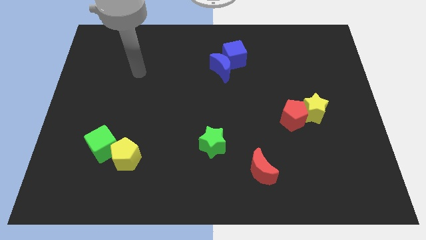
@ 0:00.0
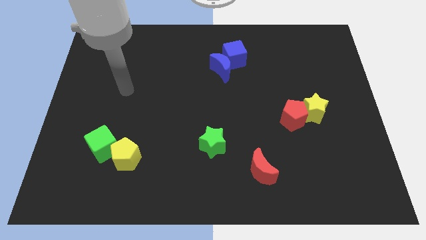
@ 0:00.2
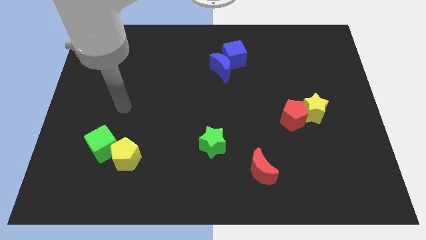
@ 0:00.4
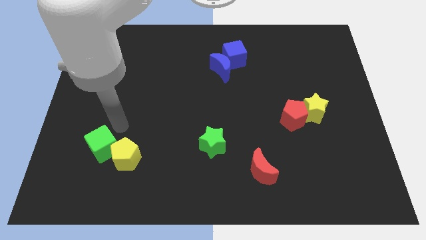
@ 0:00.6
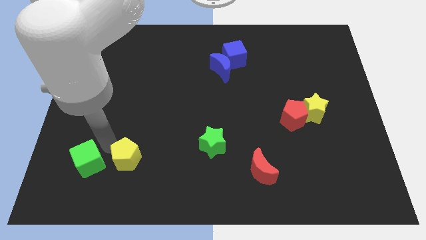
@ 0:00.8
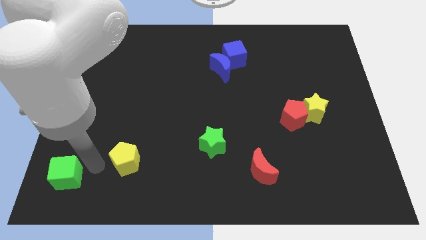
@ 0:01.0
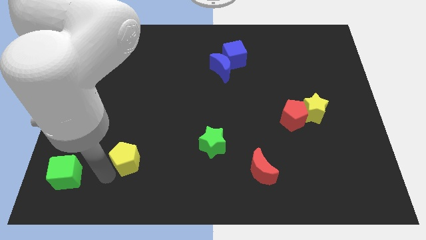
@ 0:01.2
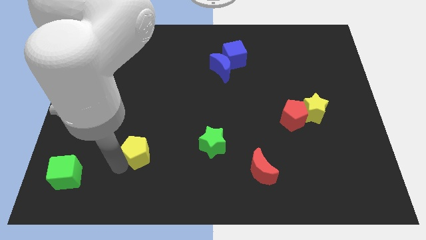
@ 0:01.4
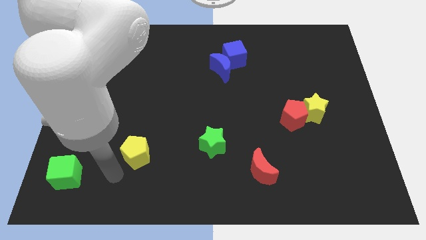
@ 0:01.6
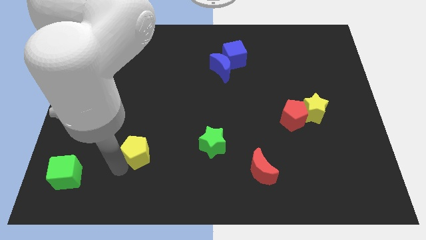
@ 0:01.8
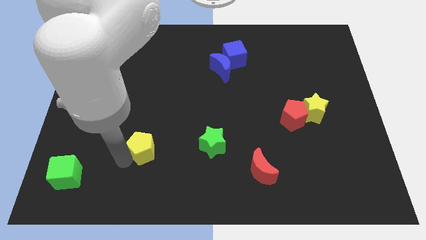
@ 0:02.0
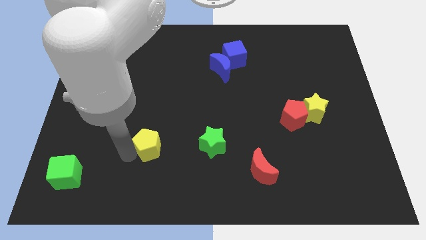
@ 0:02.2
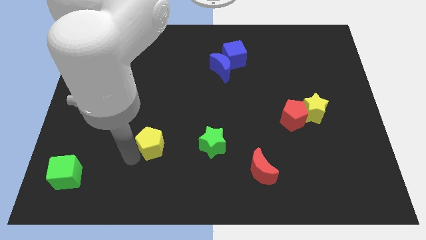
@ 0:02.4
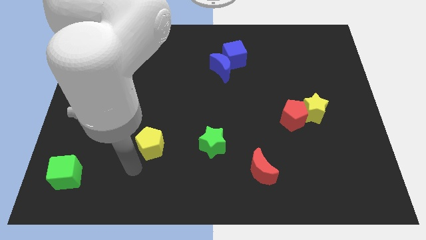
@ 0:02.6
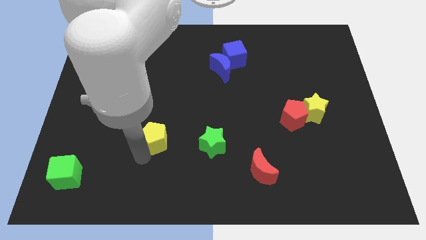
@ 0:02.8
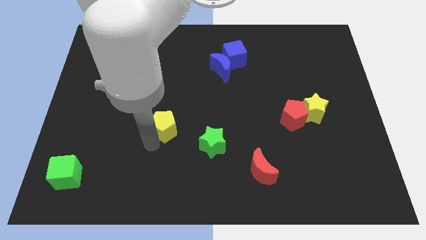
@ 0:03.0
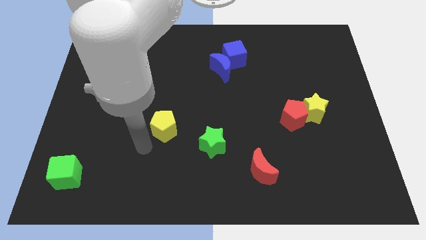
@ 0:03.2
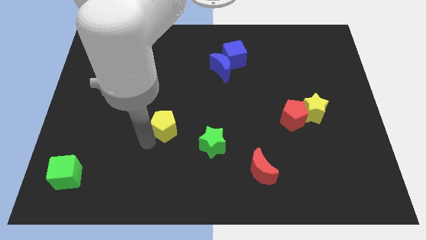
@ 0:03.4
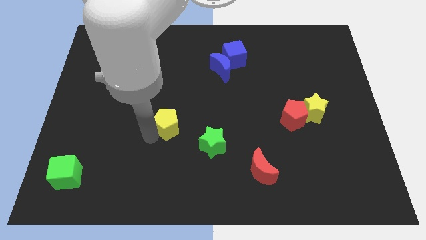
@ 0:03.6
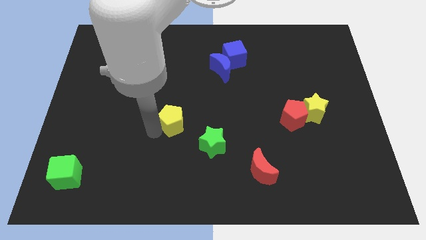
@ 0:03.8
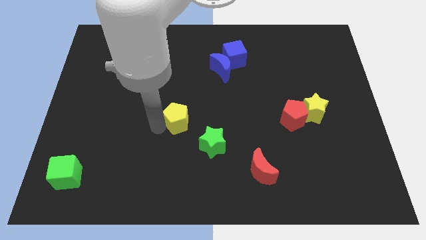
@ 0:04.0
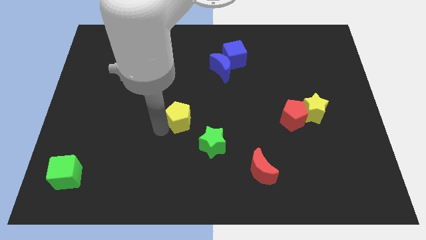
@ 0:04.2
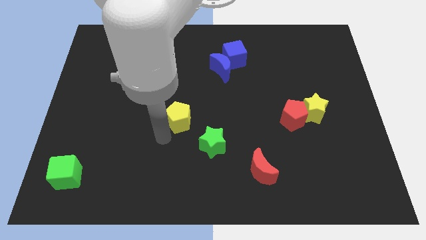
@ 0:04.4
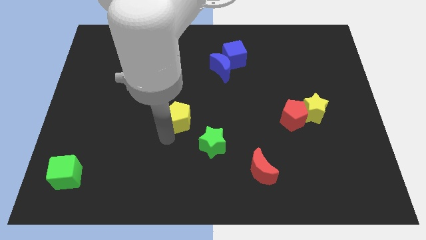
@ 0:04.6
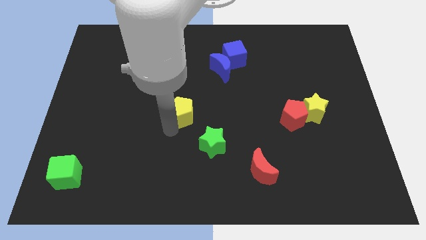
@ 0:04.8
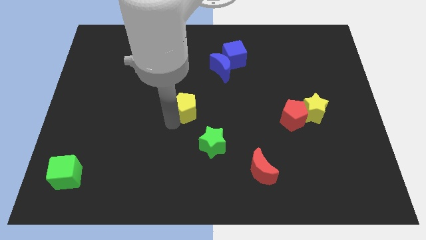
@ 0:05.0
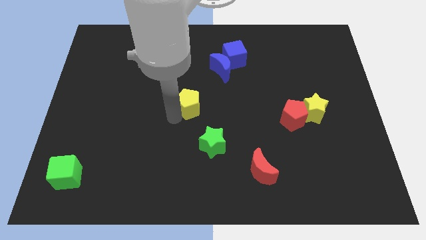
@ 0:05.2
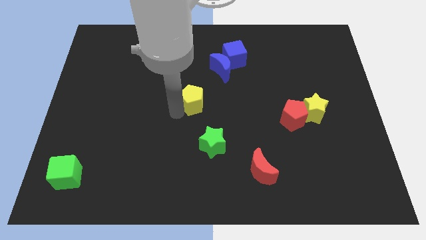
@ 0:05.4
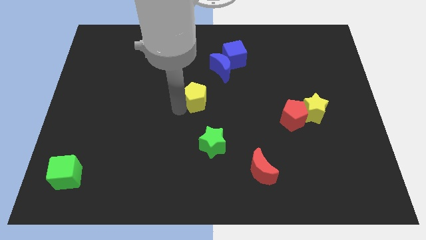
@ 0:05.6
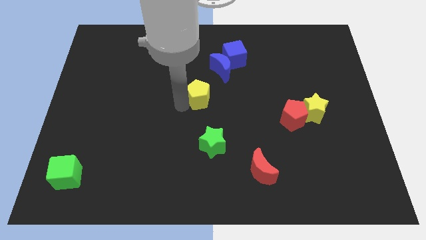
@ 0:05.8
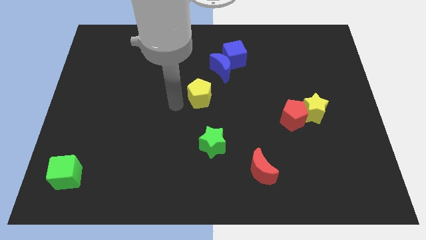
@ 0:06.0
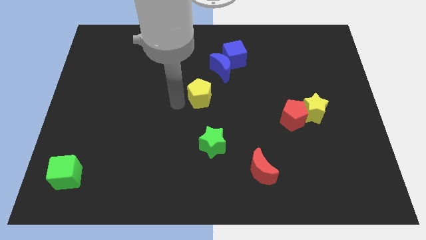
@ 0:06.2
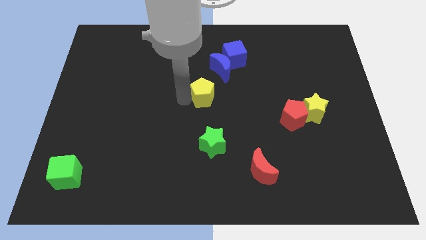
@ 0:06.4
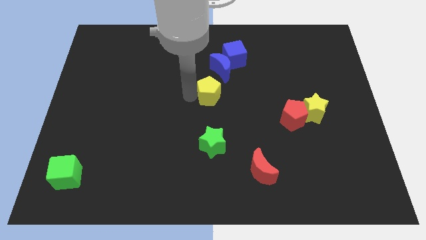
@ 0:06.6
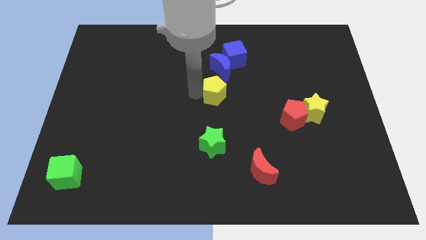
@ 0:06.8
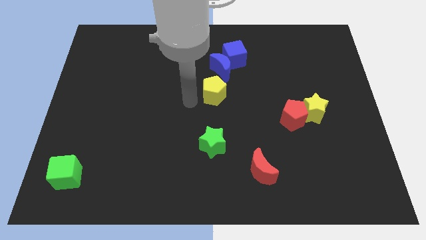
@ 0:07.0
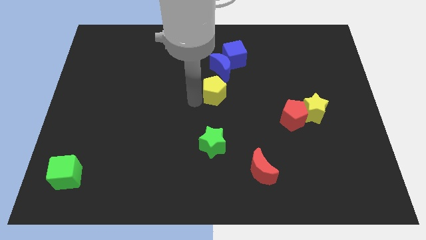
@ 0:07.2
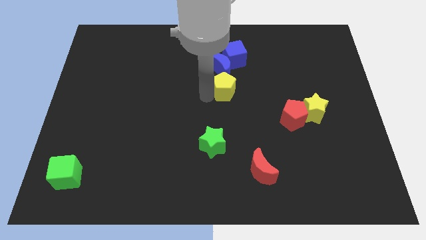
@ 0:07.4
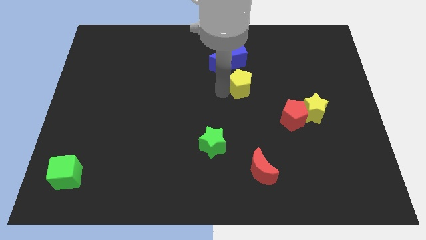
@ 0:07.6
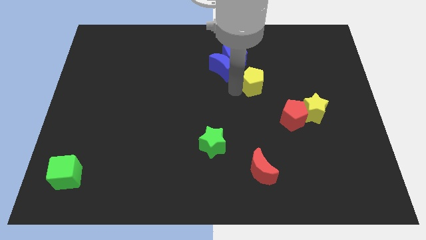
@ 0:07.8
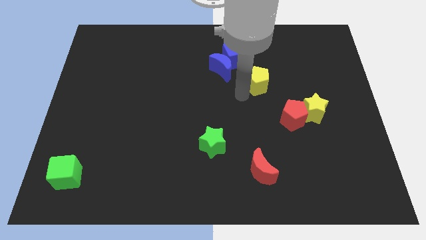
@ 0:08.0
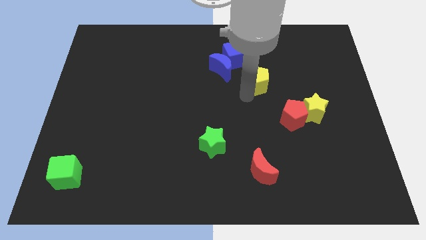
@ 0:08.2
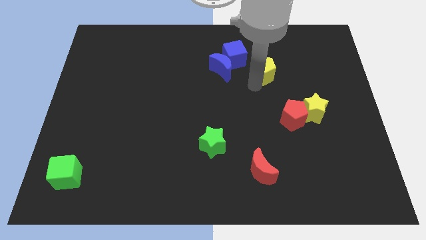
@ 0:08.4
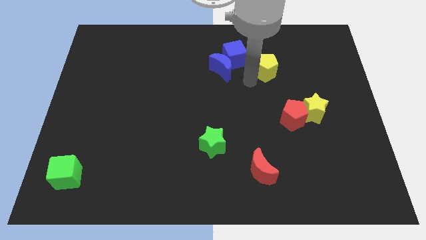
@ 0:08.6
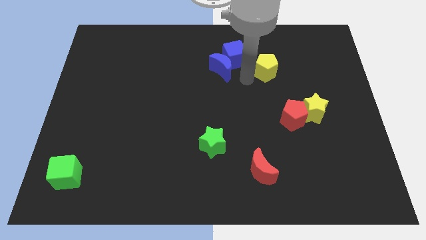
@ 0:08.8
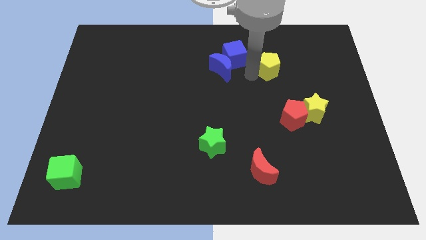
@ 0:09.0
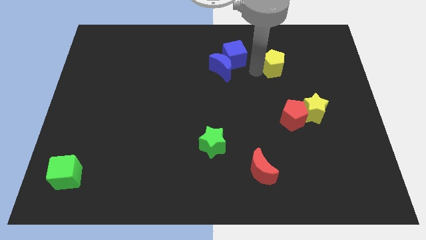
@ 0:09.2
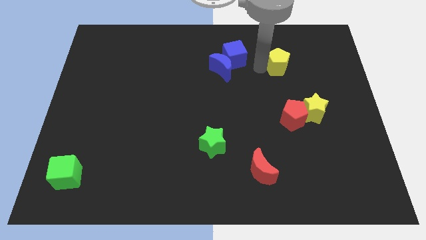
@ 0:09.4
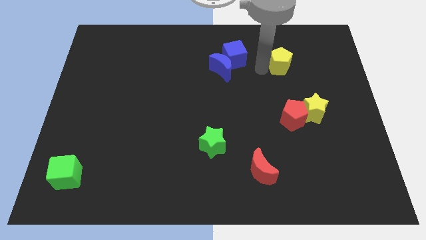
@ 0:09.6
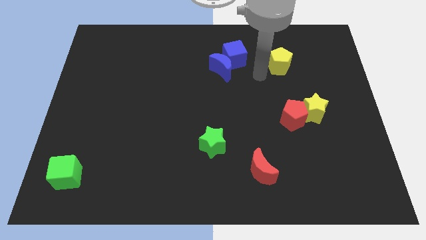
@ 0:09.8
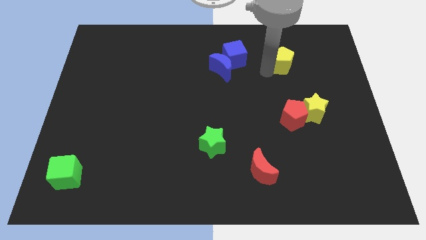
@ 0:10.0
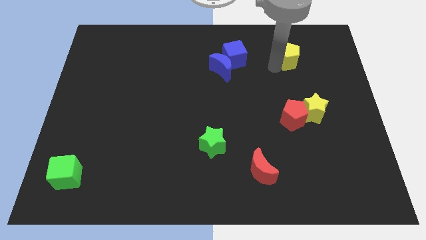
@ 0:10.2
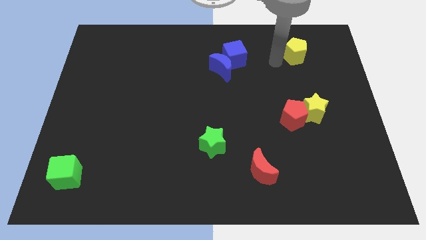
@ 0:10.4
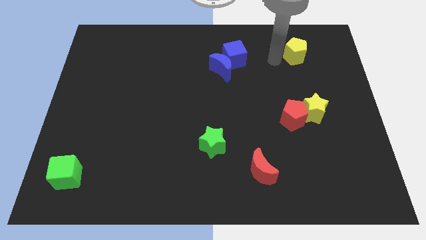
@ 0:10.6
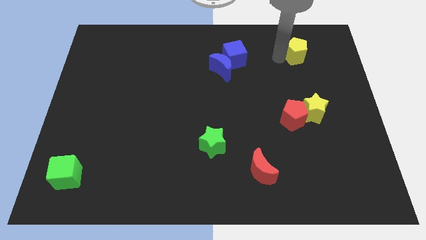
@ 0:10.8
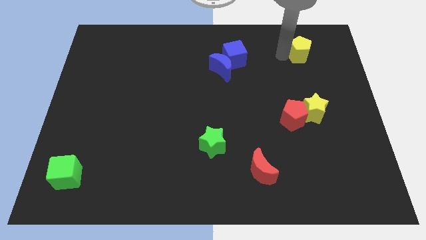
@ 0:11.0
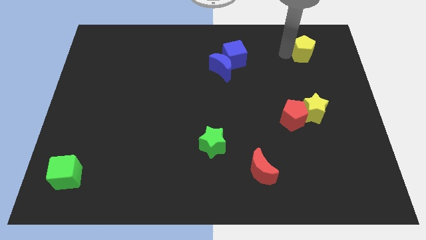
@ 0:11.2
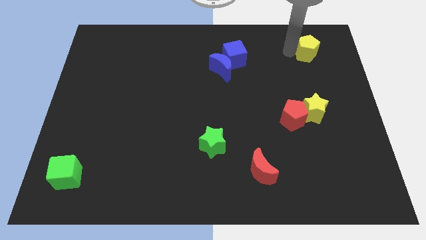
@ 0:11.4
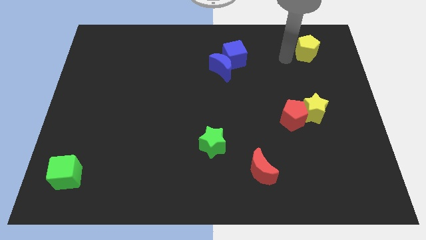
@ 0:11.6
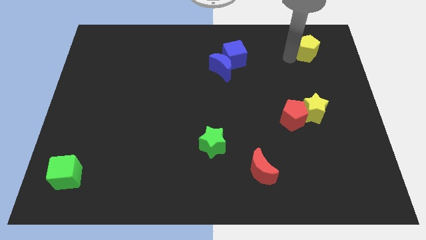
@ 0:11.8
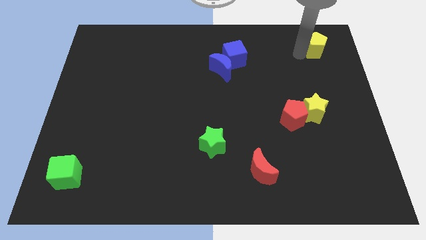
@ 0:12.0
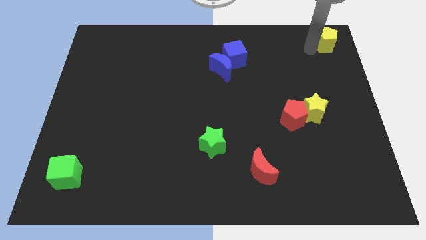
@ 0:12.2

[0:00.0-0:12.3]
slide the yellow pentagon to the upper right corner
